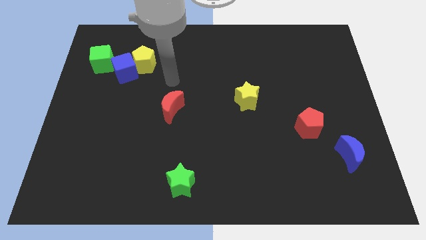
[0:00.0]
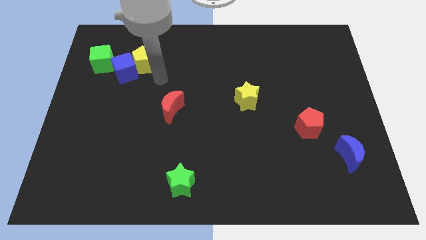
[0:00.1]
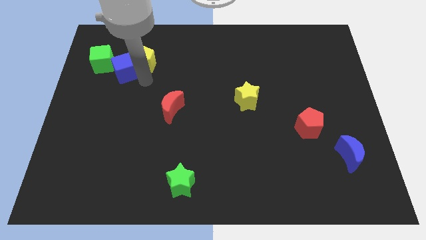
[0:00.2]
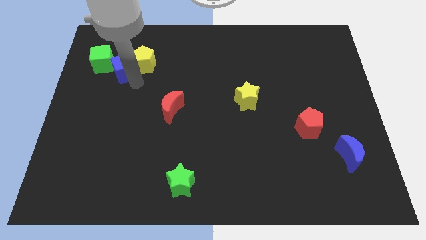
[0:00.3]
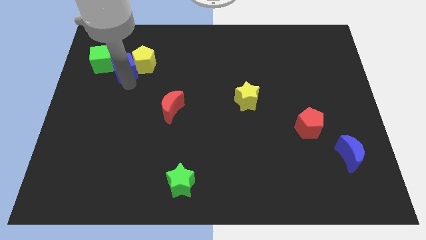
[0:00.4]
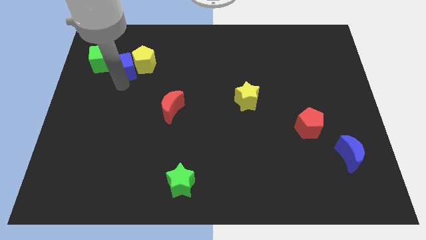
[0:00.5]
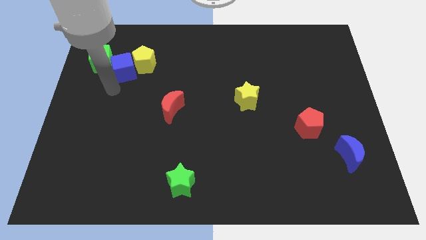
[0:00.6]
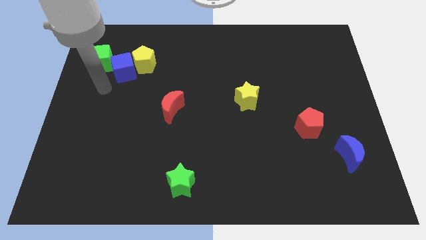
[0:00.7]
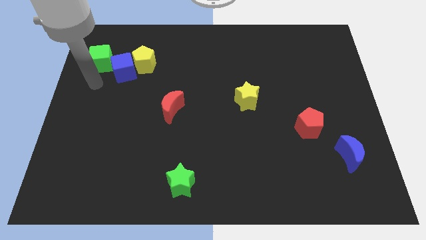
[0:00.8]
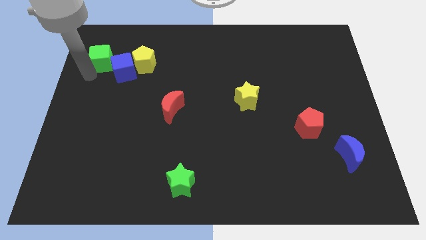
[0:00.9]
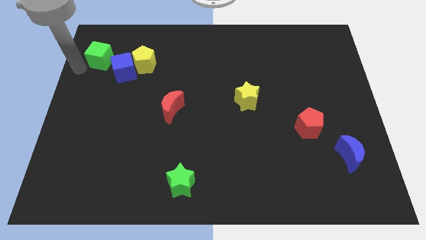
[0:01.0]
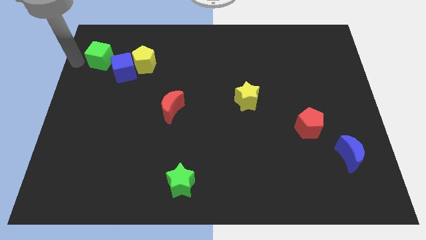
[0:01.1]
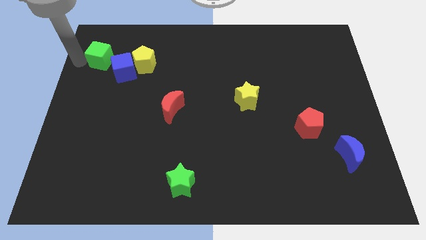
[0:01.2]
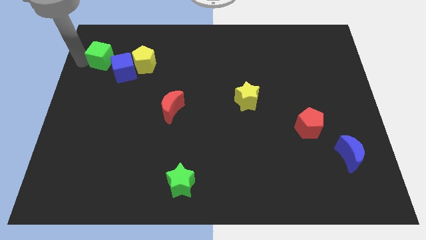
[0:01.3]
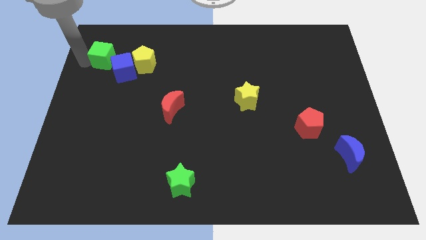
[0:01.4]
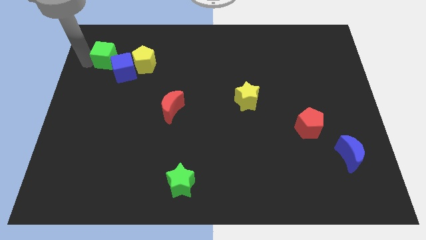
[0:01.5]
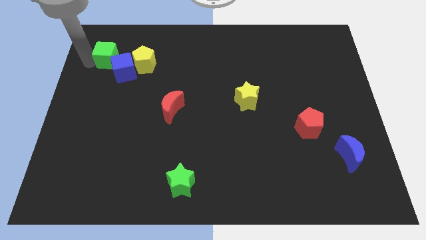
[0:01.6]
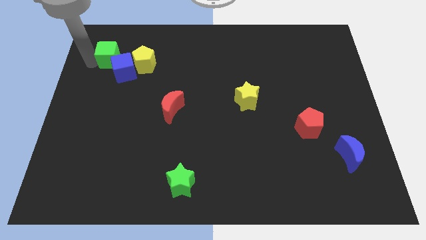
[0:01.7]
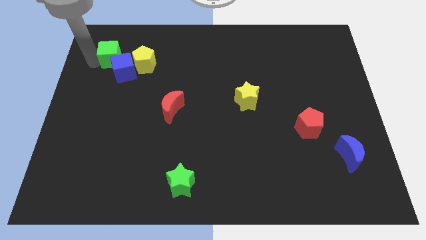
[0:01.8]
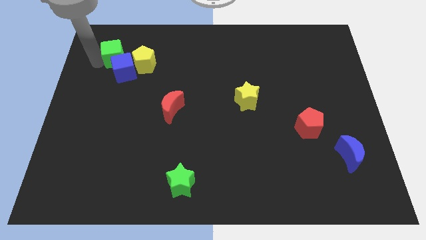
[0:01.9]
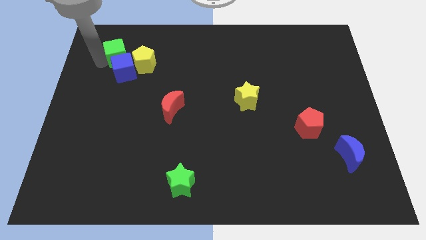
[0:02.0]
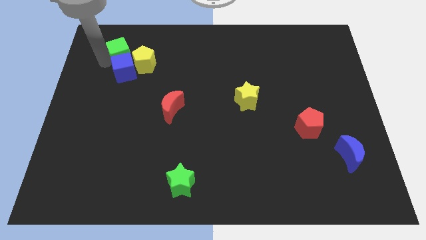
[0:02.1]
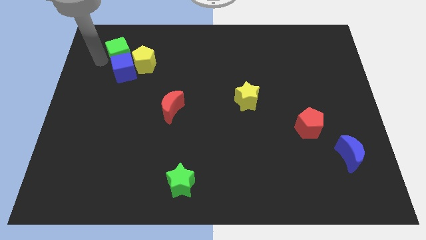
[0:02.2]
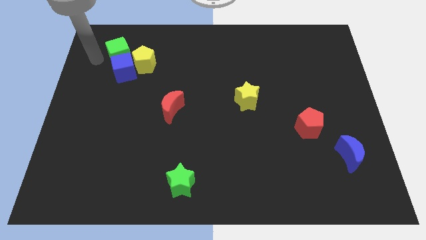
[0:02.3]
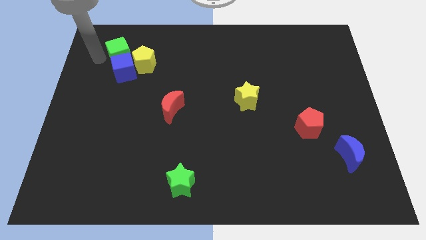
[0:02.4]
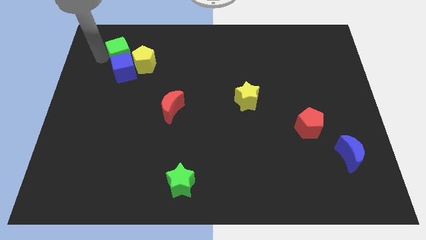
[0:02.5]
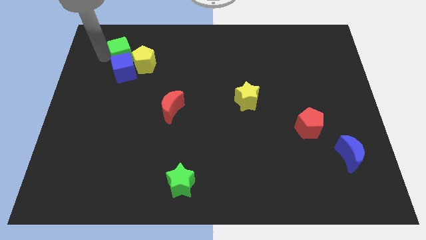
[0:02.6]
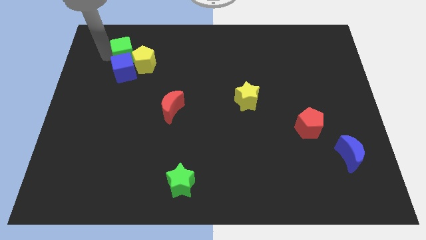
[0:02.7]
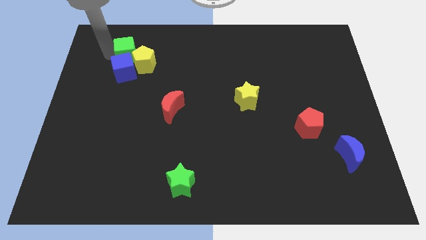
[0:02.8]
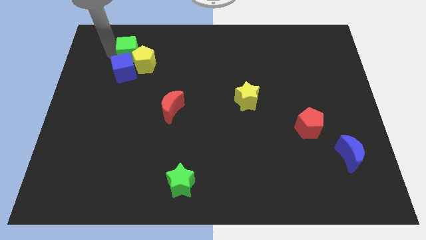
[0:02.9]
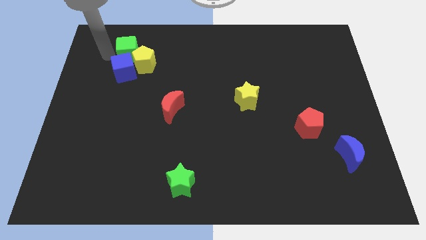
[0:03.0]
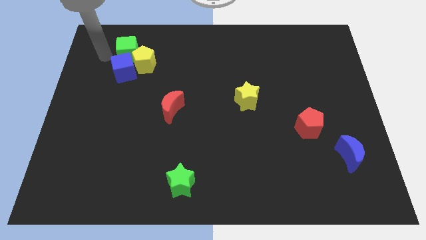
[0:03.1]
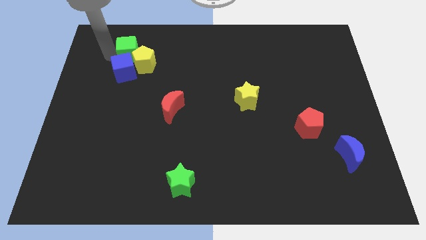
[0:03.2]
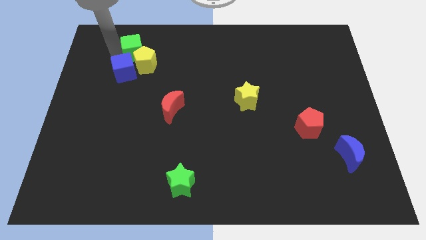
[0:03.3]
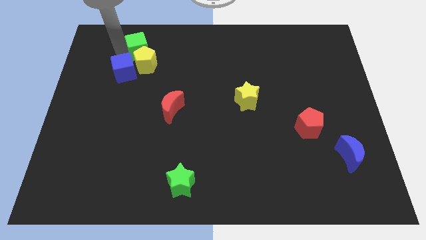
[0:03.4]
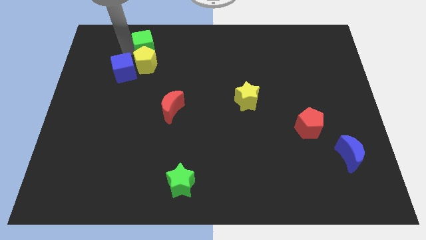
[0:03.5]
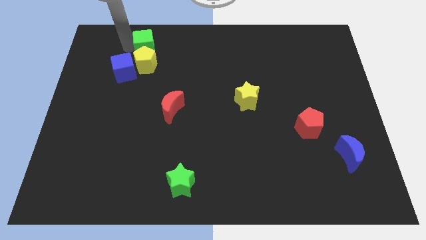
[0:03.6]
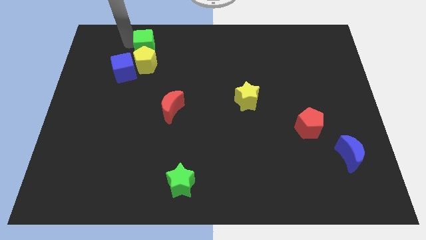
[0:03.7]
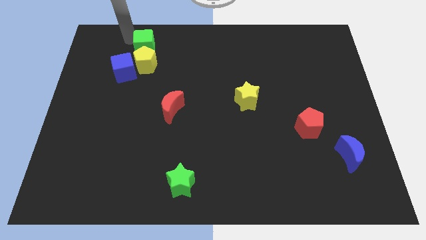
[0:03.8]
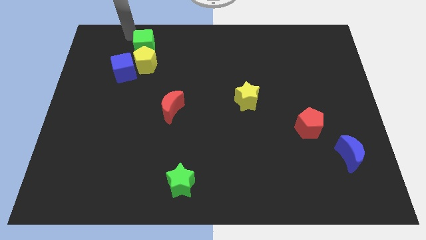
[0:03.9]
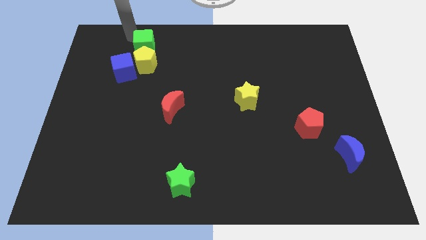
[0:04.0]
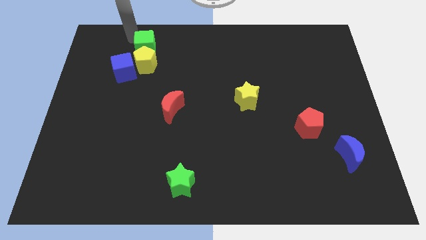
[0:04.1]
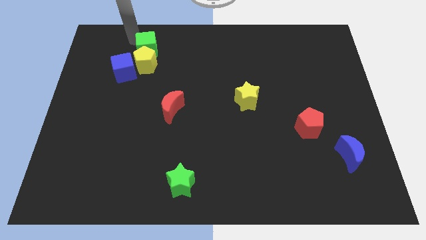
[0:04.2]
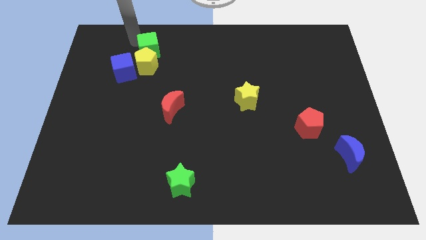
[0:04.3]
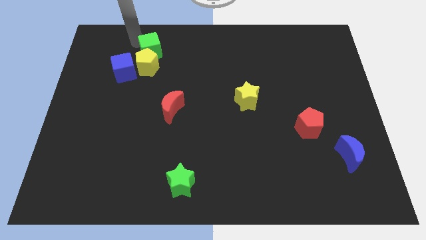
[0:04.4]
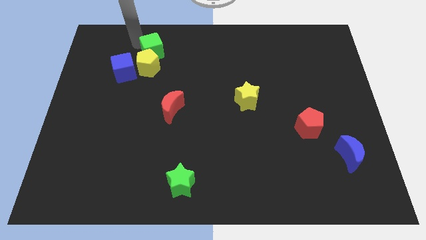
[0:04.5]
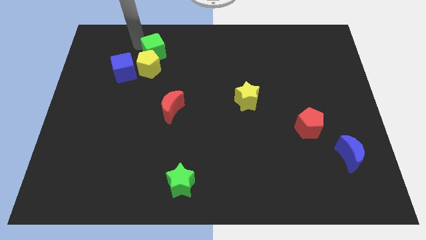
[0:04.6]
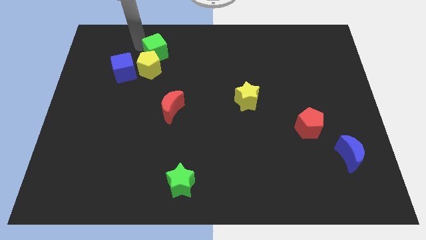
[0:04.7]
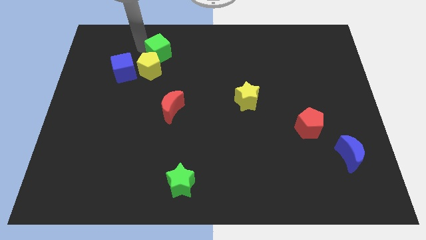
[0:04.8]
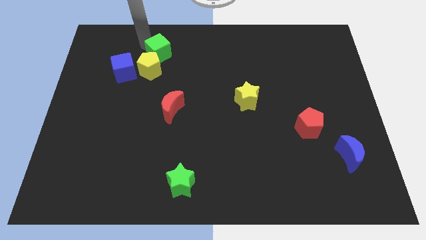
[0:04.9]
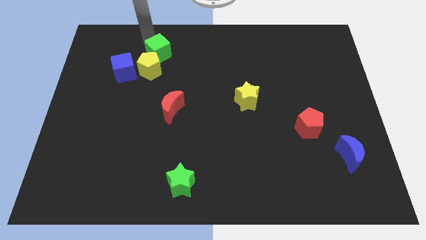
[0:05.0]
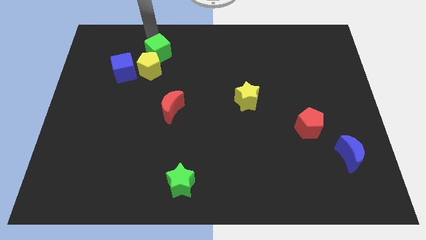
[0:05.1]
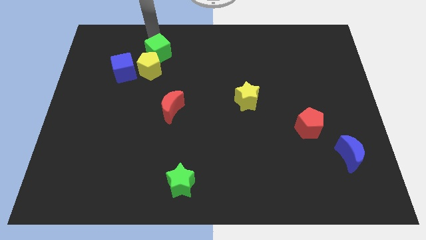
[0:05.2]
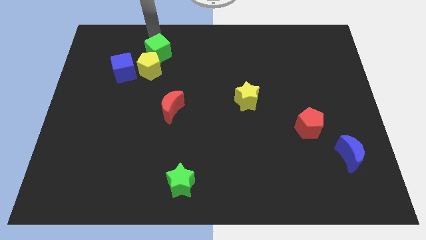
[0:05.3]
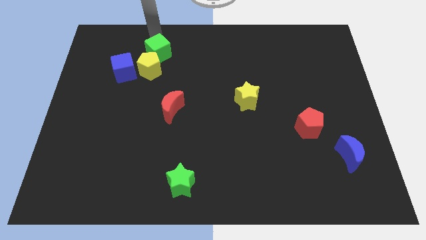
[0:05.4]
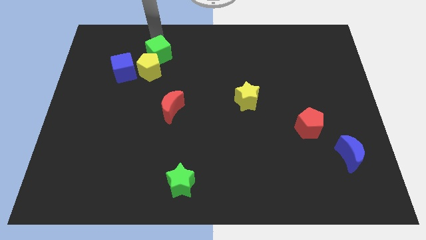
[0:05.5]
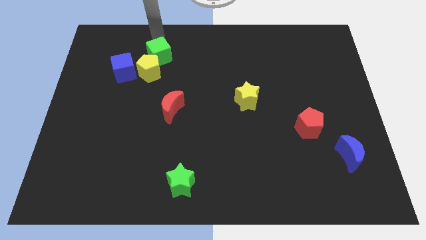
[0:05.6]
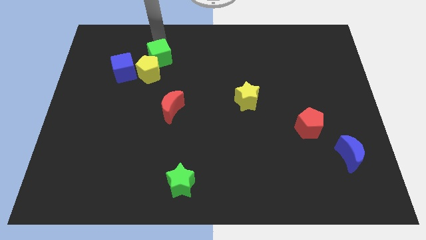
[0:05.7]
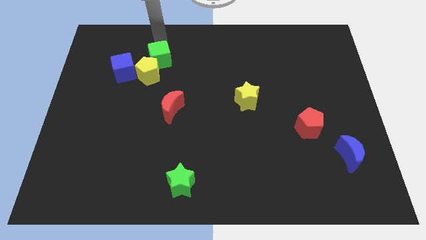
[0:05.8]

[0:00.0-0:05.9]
put the green cube right of the blue cube

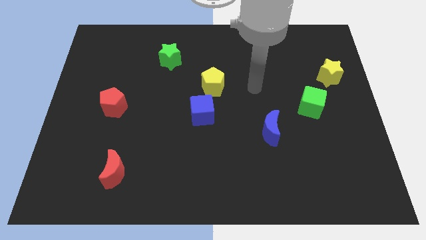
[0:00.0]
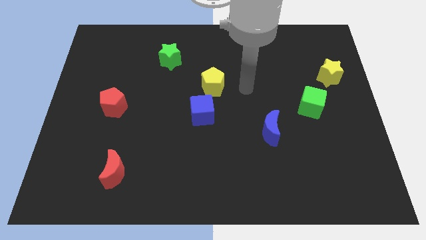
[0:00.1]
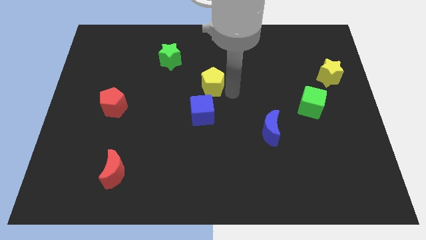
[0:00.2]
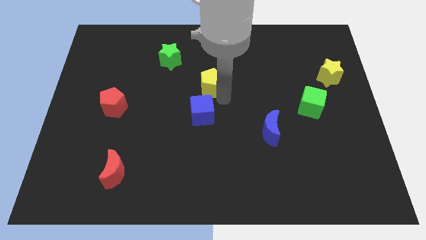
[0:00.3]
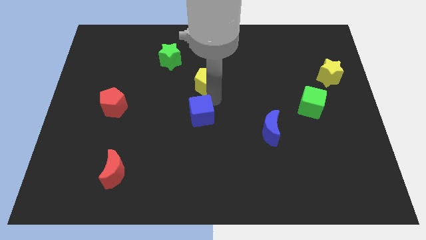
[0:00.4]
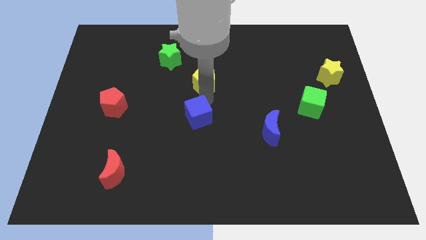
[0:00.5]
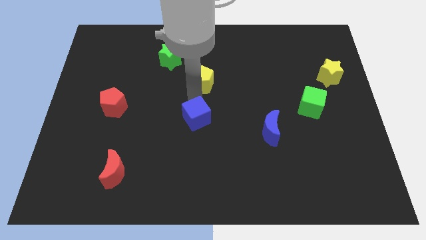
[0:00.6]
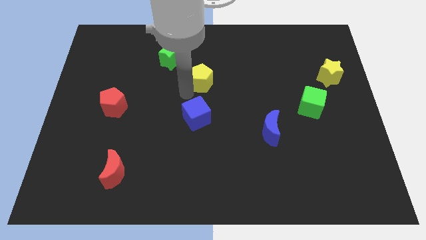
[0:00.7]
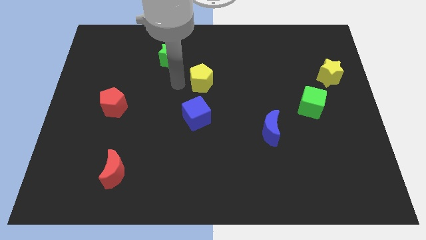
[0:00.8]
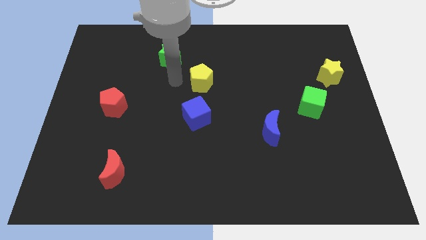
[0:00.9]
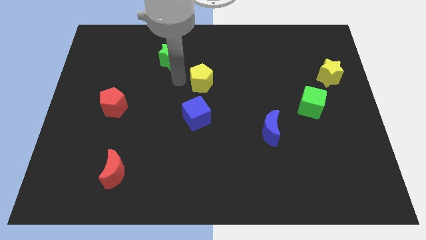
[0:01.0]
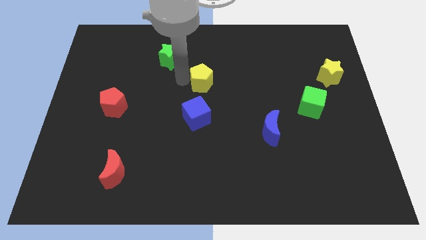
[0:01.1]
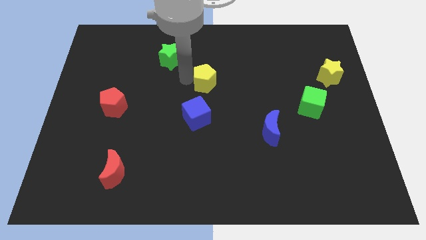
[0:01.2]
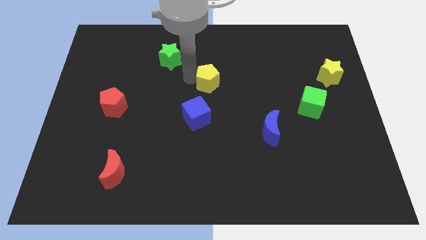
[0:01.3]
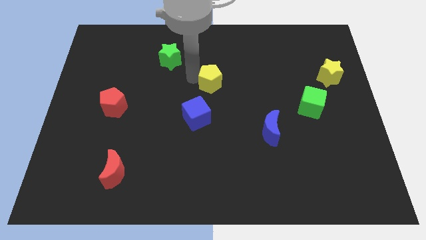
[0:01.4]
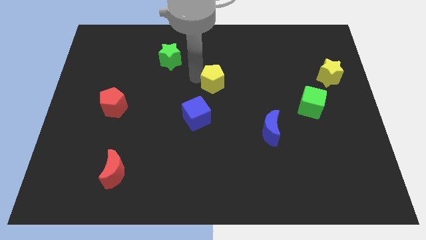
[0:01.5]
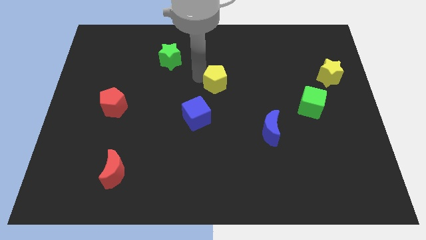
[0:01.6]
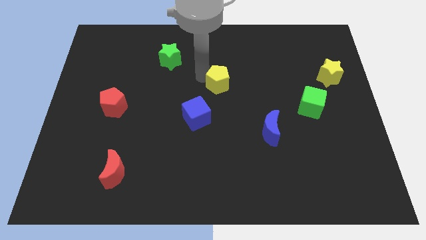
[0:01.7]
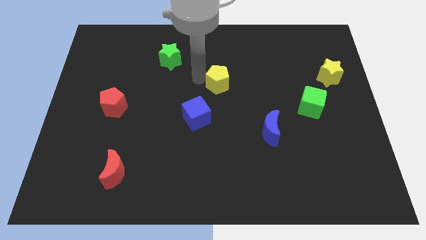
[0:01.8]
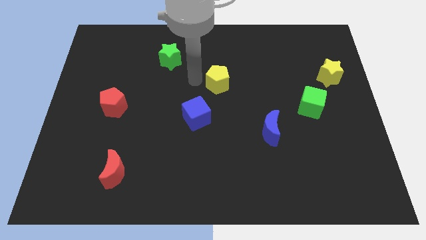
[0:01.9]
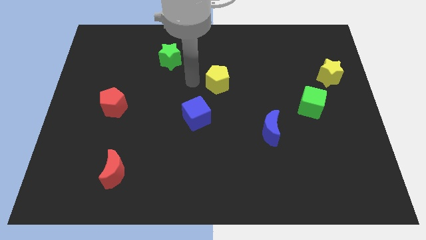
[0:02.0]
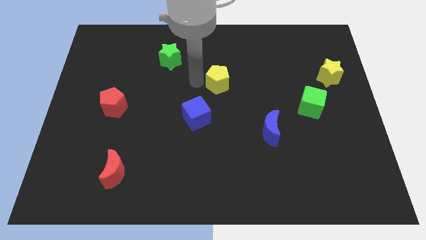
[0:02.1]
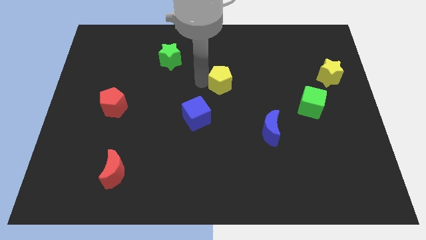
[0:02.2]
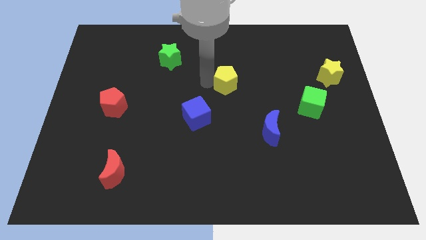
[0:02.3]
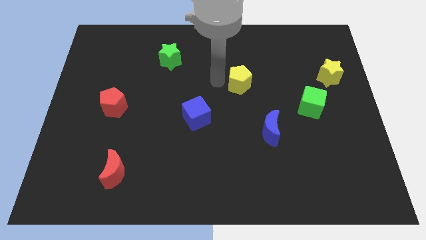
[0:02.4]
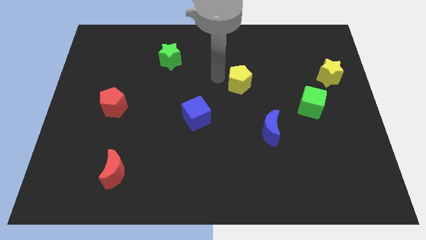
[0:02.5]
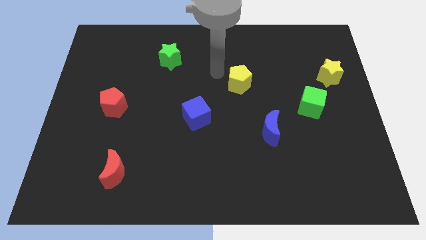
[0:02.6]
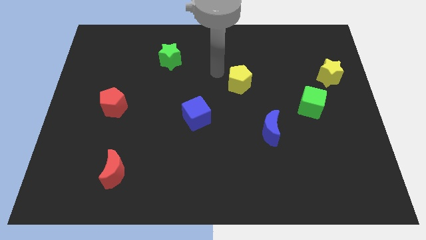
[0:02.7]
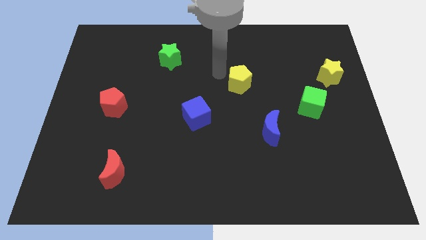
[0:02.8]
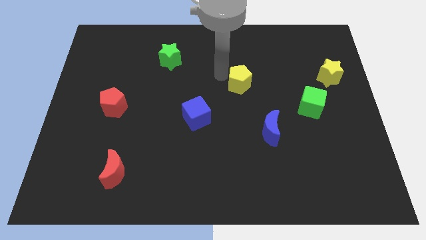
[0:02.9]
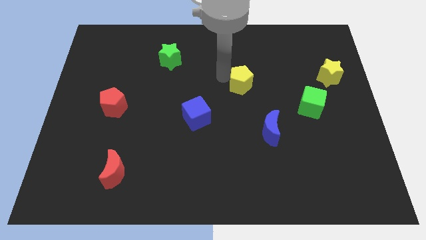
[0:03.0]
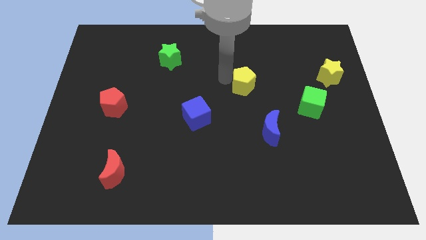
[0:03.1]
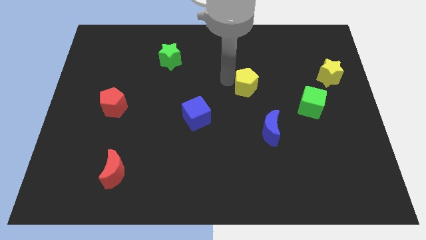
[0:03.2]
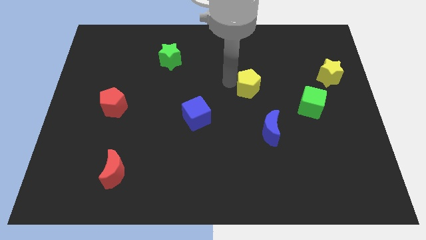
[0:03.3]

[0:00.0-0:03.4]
move the yellow pentagon above the blue moon
